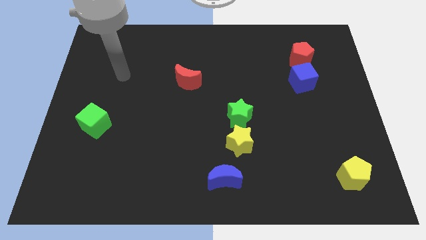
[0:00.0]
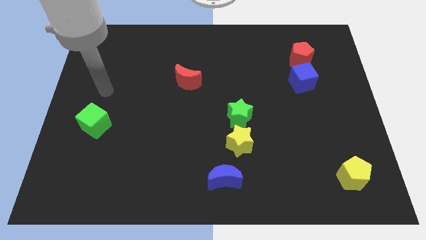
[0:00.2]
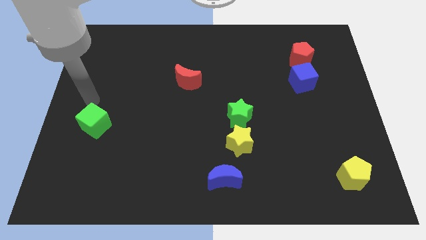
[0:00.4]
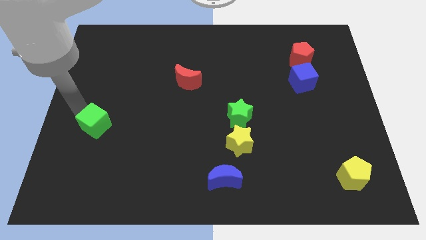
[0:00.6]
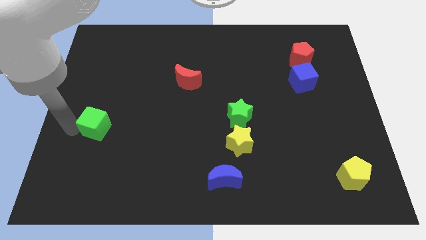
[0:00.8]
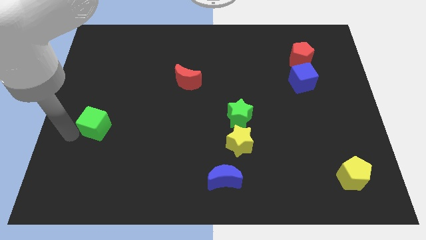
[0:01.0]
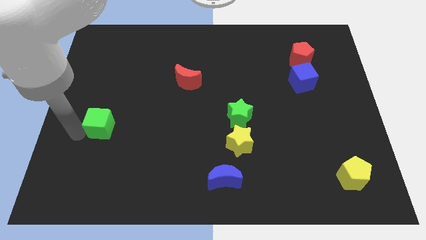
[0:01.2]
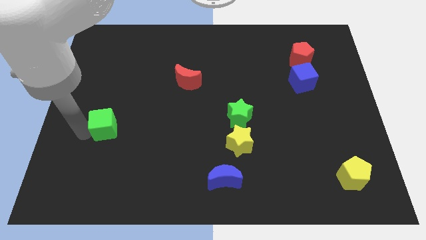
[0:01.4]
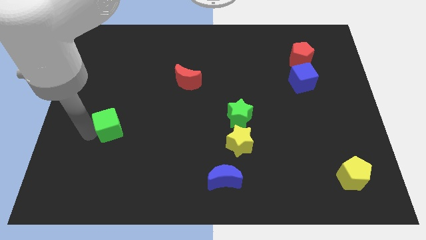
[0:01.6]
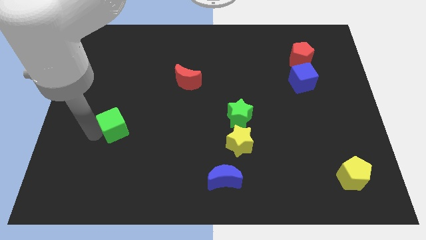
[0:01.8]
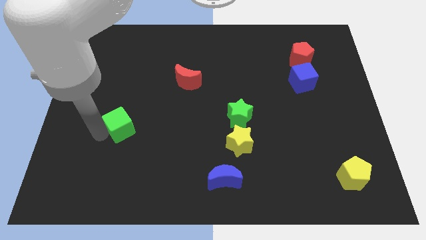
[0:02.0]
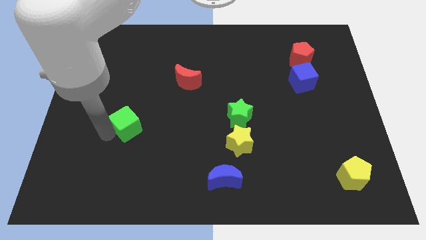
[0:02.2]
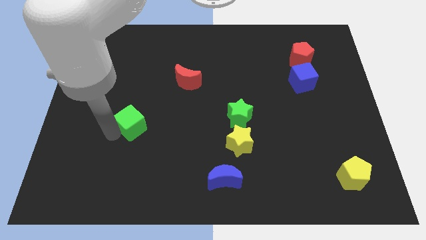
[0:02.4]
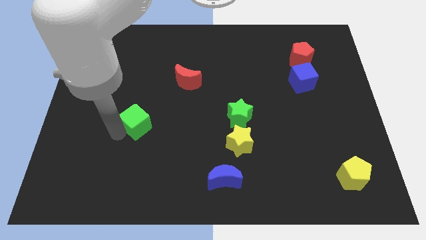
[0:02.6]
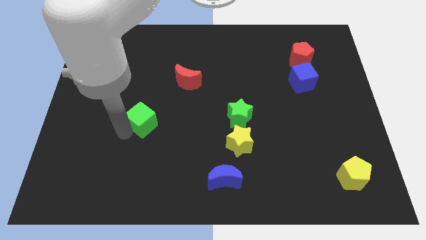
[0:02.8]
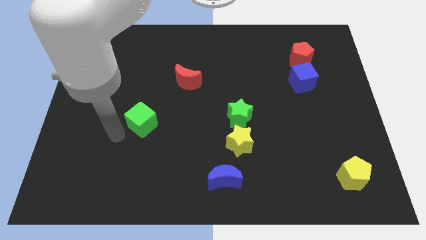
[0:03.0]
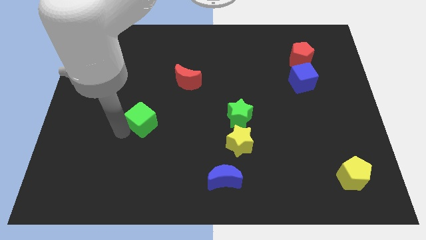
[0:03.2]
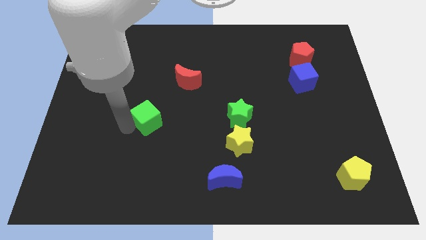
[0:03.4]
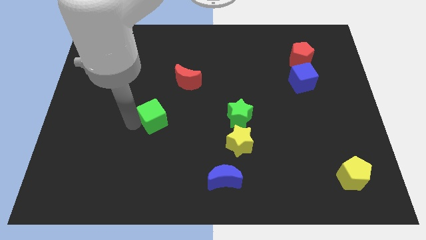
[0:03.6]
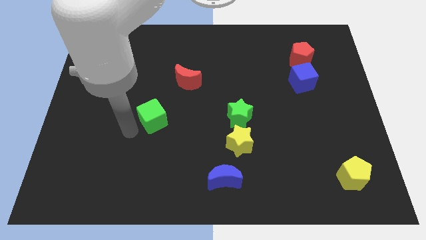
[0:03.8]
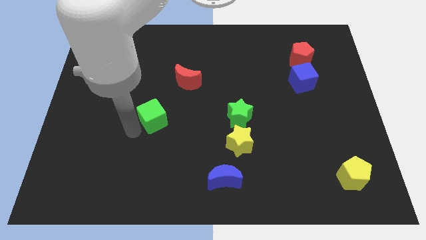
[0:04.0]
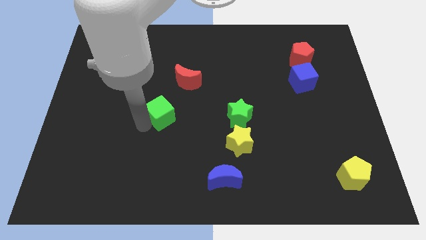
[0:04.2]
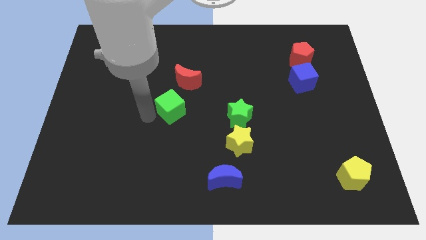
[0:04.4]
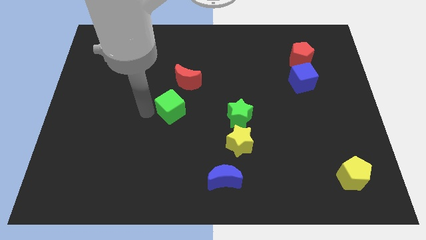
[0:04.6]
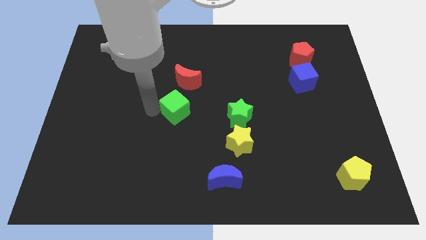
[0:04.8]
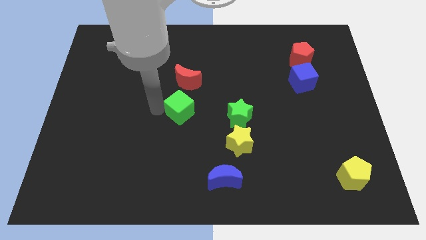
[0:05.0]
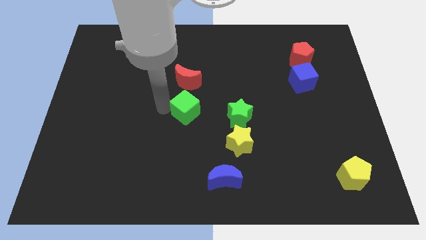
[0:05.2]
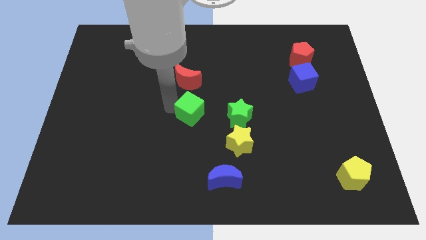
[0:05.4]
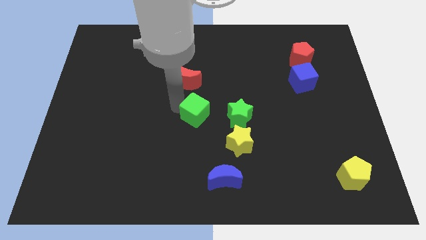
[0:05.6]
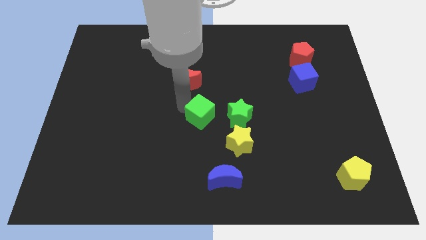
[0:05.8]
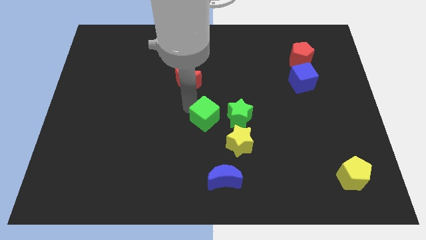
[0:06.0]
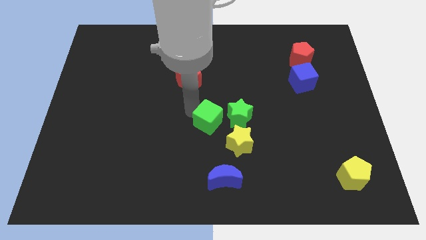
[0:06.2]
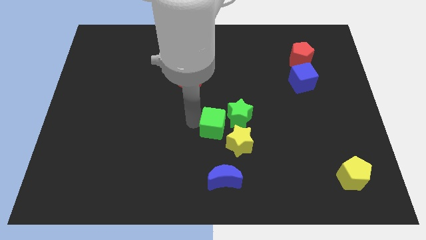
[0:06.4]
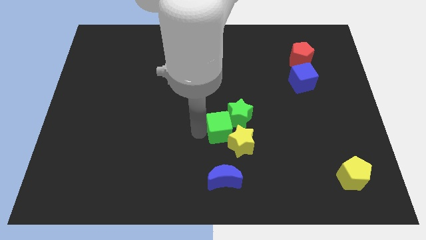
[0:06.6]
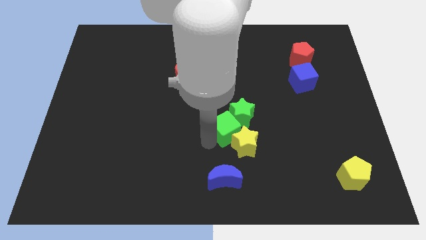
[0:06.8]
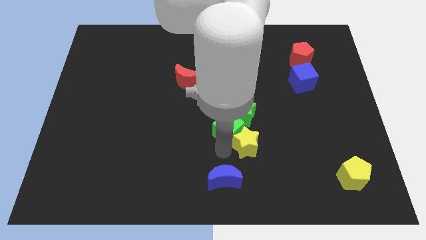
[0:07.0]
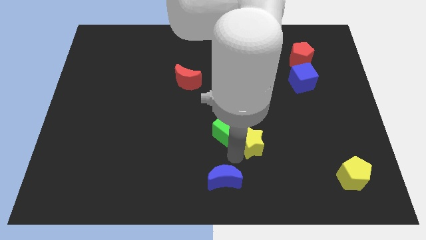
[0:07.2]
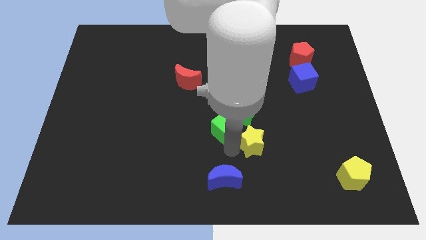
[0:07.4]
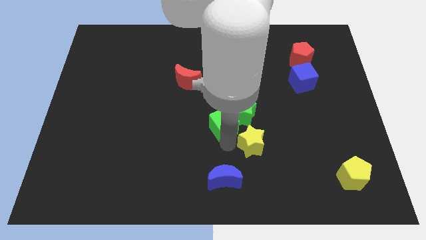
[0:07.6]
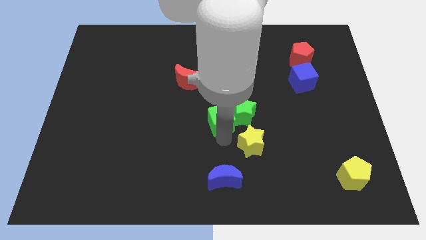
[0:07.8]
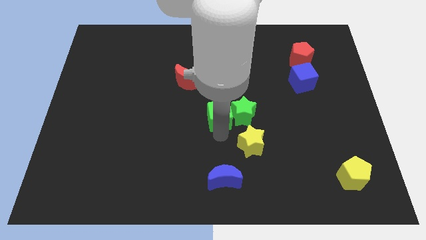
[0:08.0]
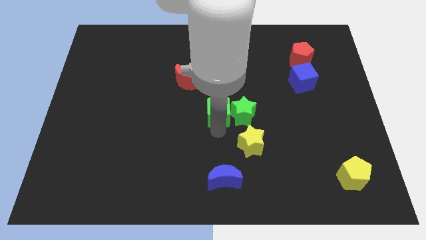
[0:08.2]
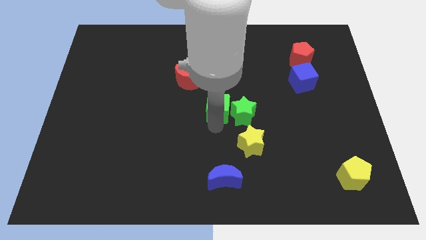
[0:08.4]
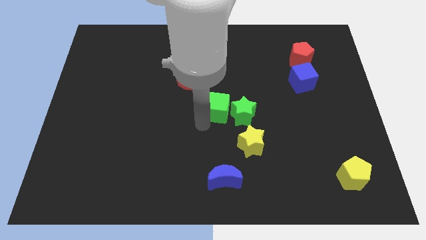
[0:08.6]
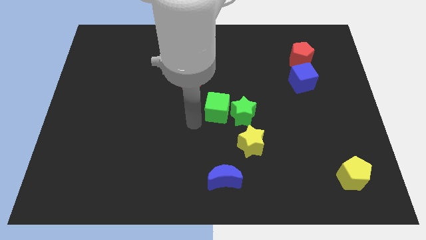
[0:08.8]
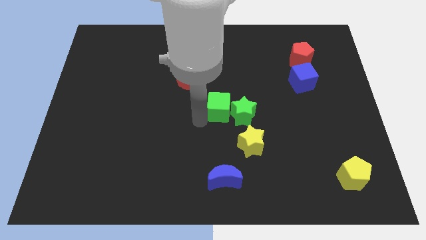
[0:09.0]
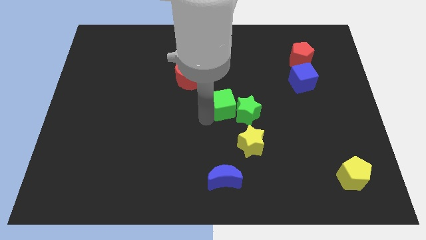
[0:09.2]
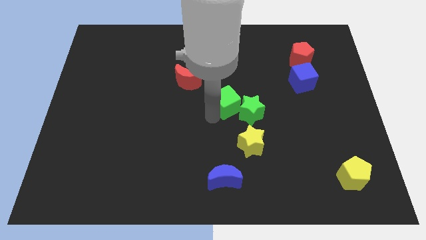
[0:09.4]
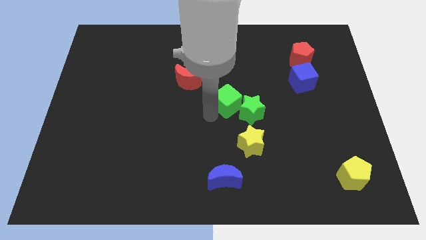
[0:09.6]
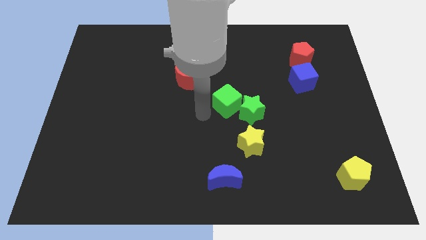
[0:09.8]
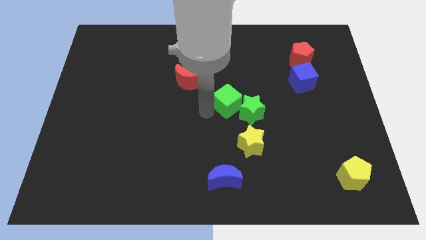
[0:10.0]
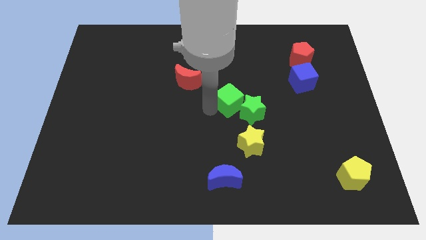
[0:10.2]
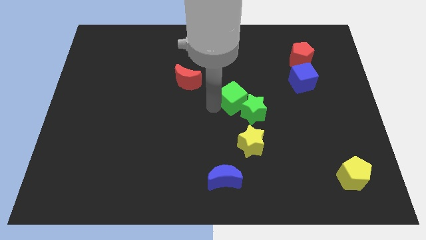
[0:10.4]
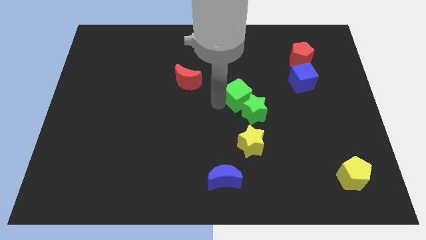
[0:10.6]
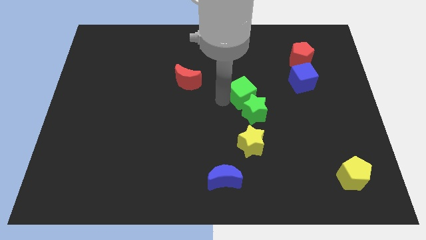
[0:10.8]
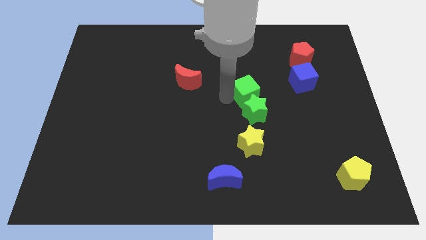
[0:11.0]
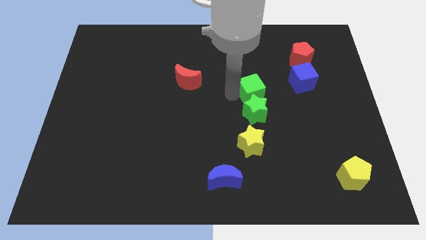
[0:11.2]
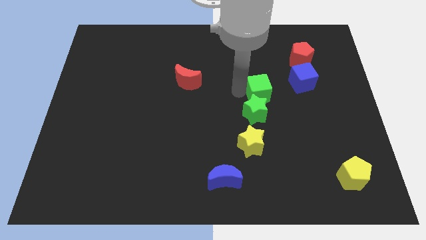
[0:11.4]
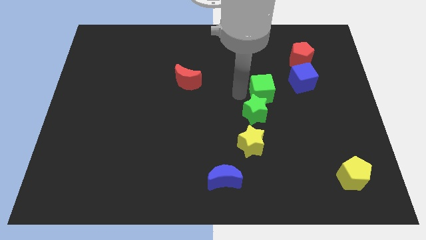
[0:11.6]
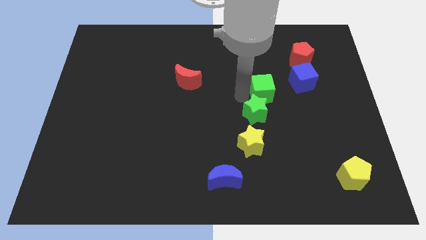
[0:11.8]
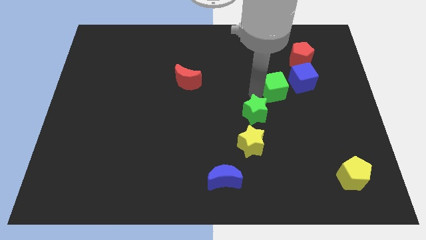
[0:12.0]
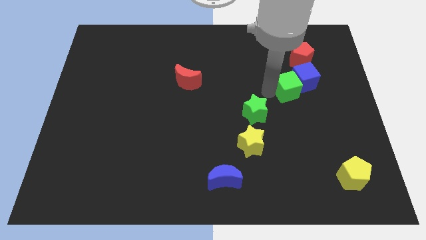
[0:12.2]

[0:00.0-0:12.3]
put the green cube close to the blue cube

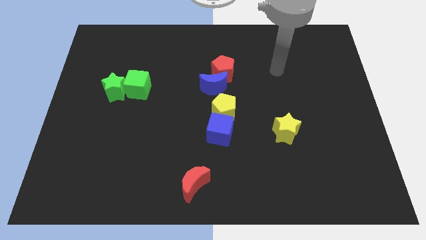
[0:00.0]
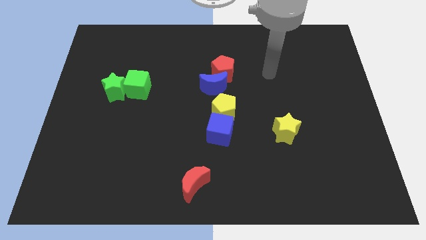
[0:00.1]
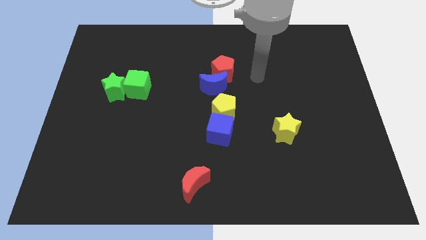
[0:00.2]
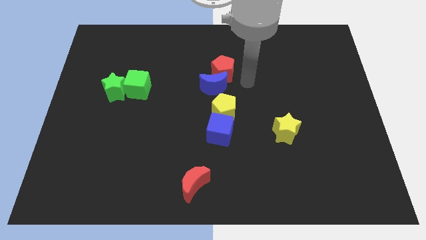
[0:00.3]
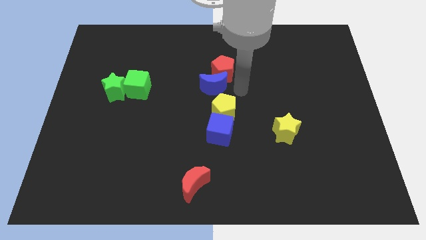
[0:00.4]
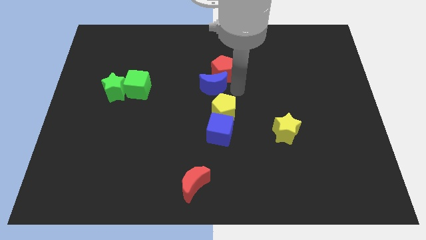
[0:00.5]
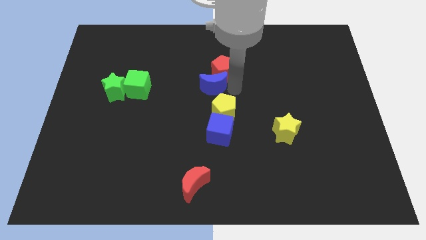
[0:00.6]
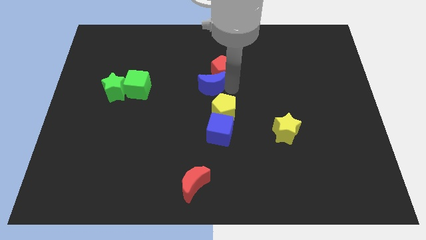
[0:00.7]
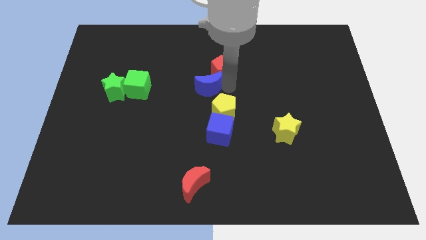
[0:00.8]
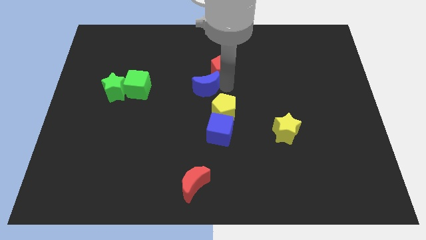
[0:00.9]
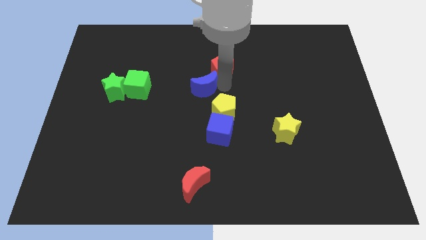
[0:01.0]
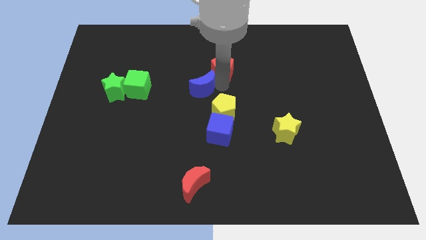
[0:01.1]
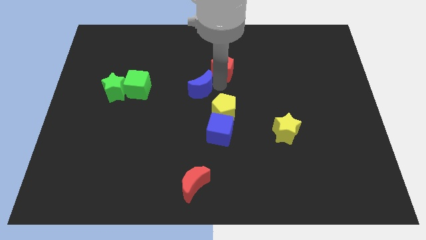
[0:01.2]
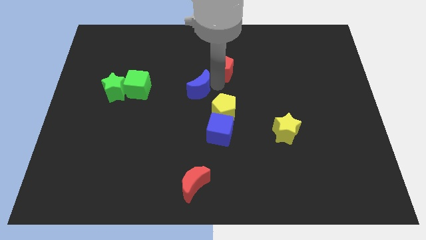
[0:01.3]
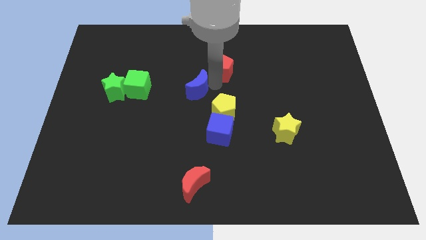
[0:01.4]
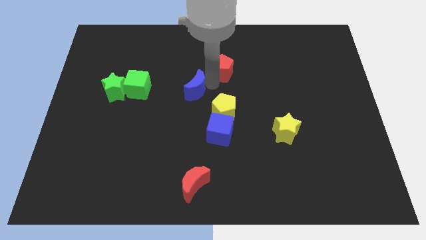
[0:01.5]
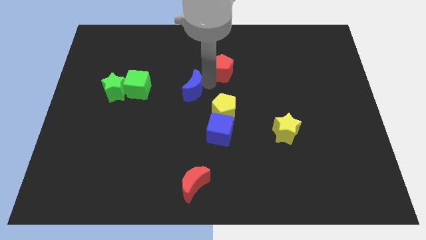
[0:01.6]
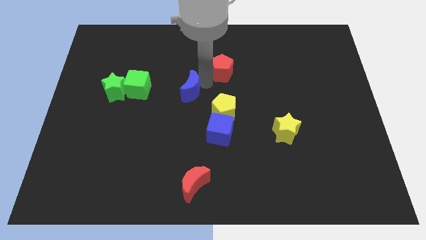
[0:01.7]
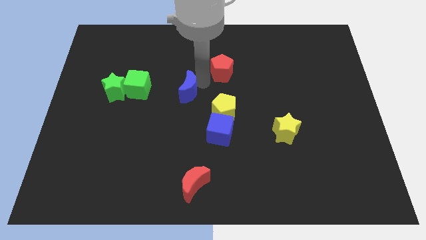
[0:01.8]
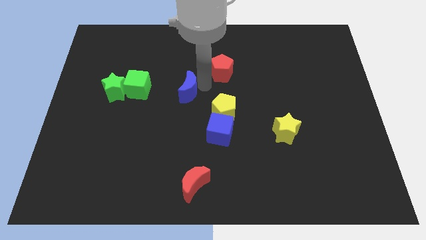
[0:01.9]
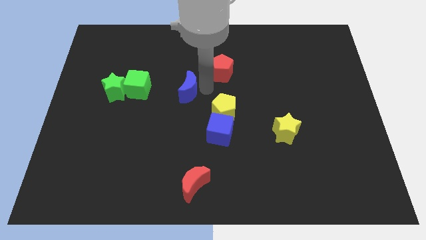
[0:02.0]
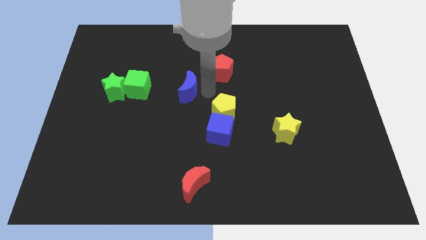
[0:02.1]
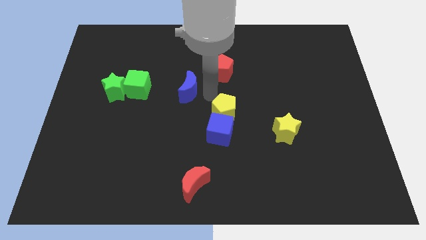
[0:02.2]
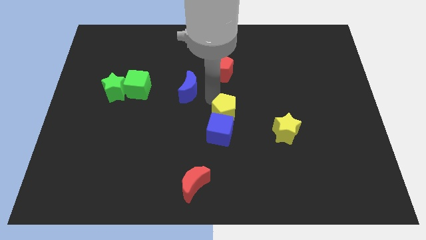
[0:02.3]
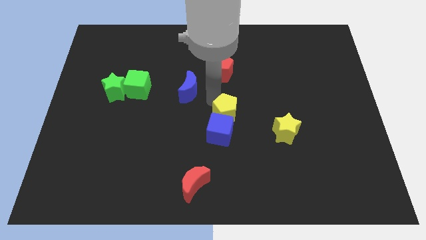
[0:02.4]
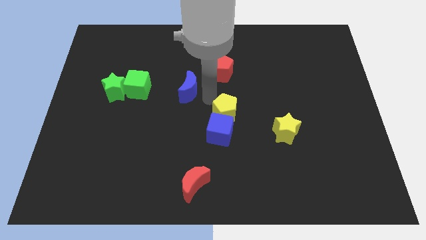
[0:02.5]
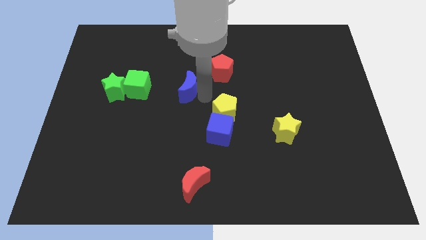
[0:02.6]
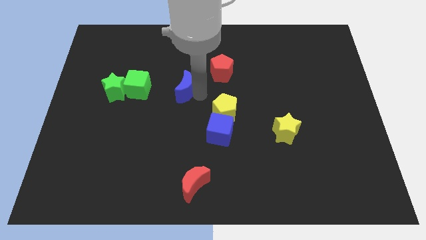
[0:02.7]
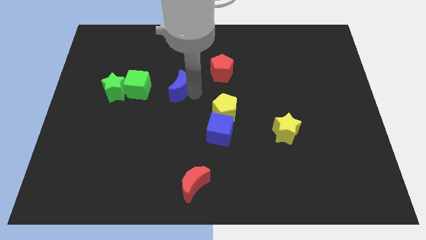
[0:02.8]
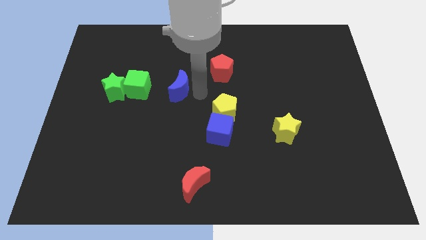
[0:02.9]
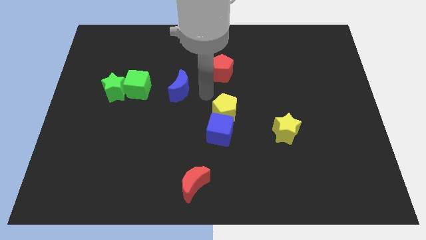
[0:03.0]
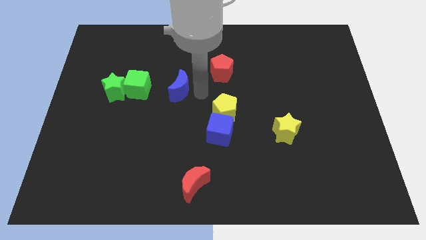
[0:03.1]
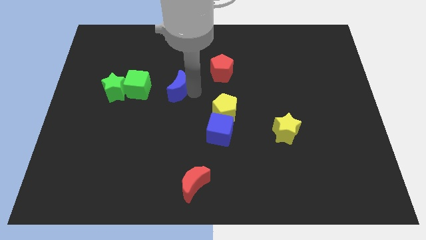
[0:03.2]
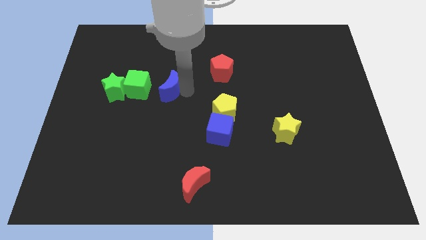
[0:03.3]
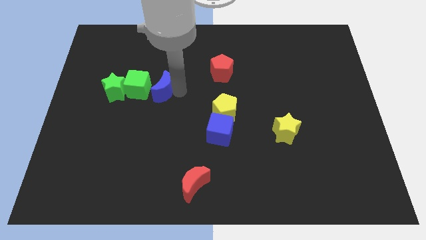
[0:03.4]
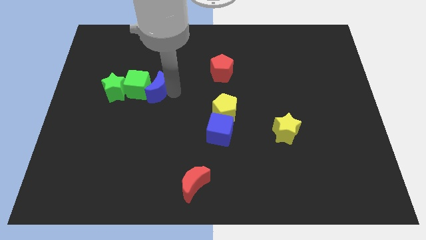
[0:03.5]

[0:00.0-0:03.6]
move the blue moon to the green cube
